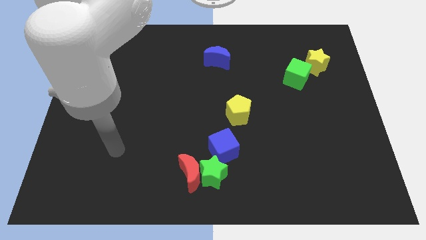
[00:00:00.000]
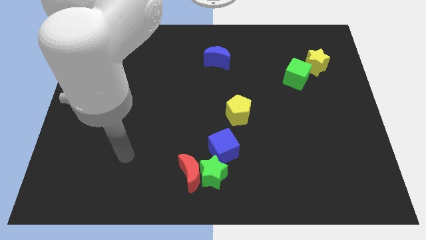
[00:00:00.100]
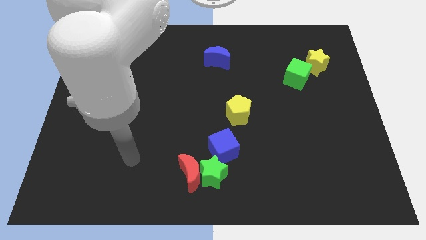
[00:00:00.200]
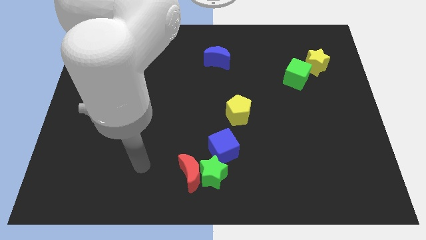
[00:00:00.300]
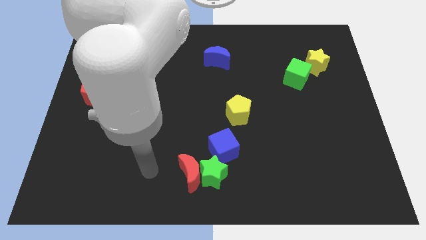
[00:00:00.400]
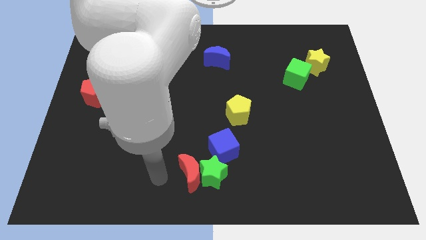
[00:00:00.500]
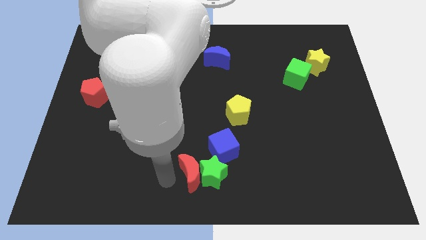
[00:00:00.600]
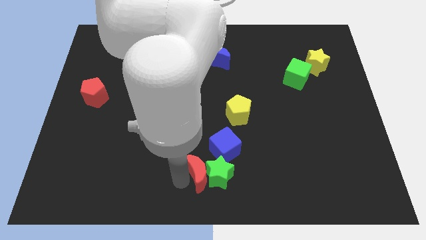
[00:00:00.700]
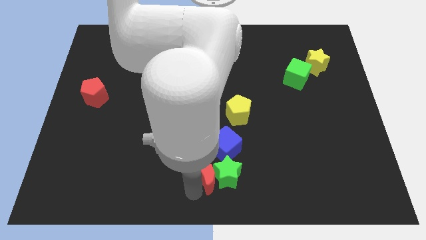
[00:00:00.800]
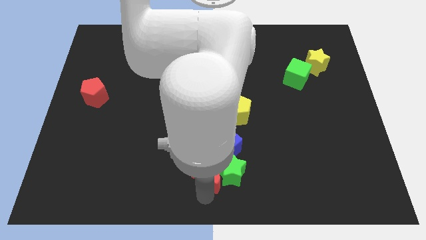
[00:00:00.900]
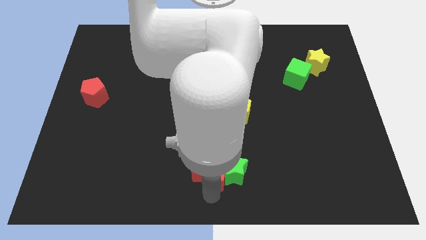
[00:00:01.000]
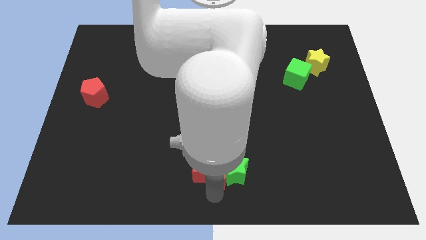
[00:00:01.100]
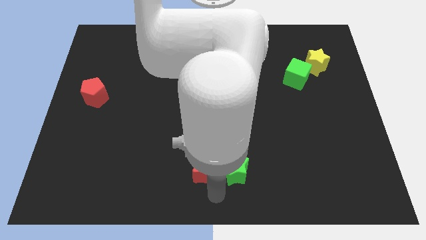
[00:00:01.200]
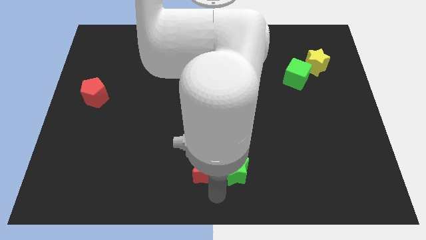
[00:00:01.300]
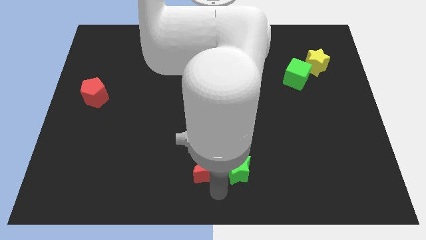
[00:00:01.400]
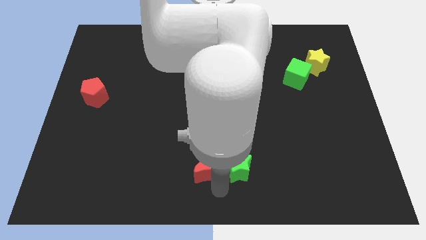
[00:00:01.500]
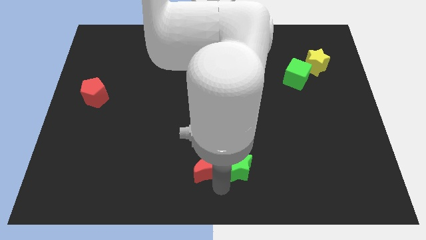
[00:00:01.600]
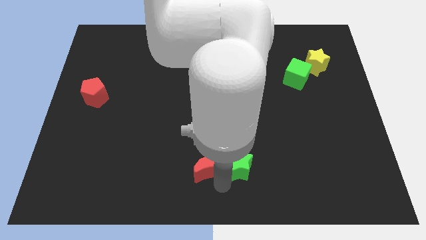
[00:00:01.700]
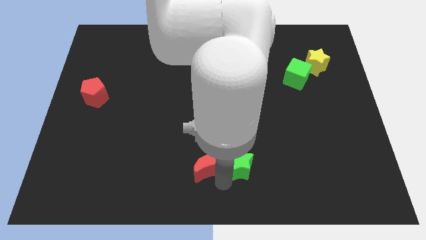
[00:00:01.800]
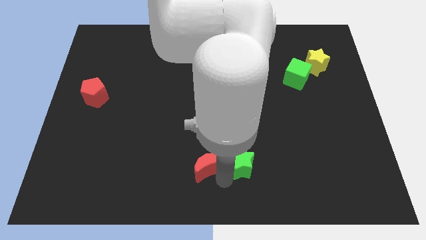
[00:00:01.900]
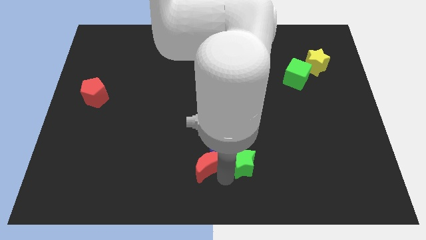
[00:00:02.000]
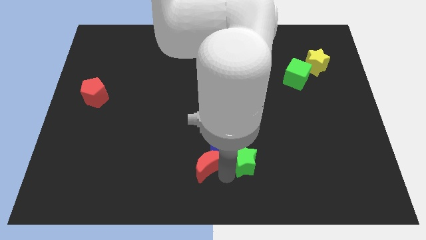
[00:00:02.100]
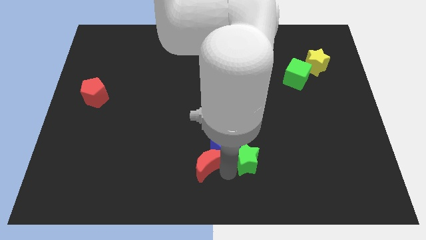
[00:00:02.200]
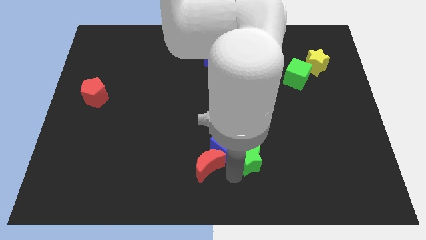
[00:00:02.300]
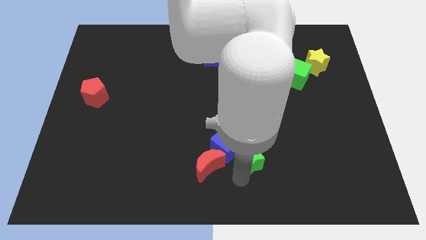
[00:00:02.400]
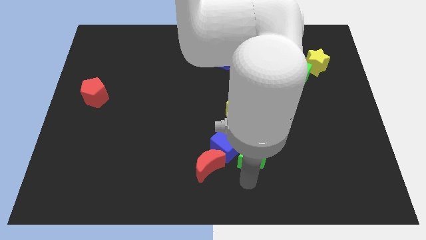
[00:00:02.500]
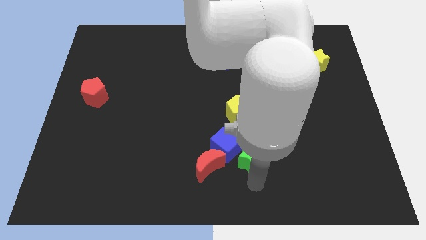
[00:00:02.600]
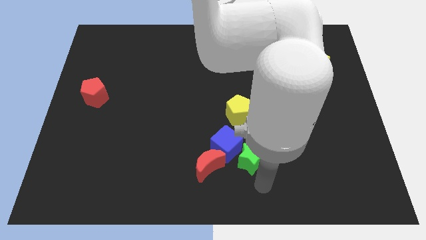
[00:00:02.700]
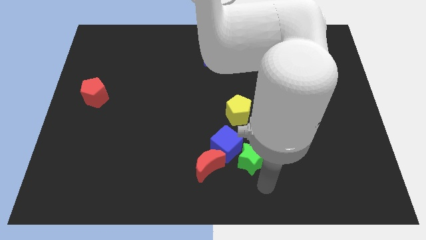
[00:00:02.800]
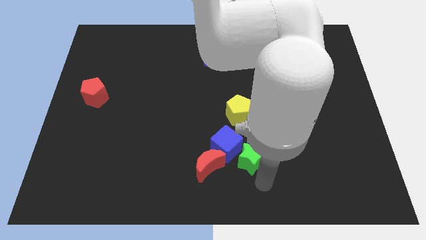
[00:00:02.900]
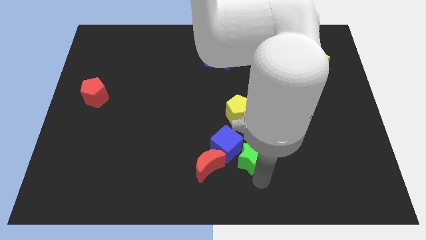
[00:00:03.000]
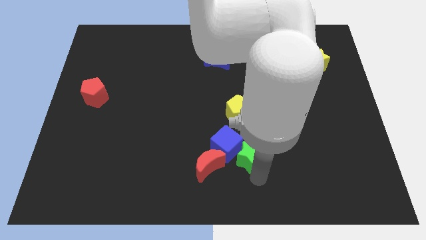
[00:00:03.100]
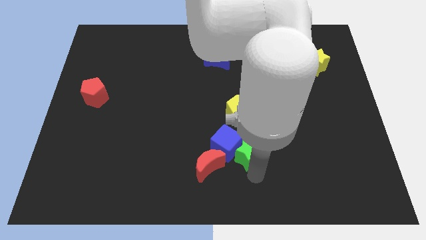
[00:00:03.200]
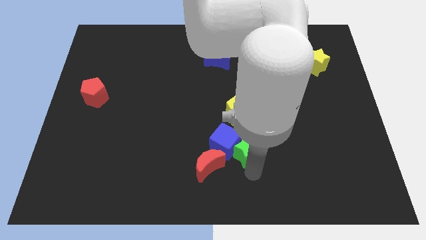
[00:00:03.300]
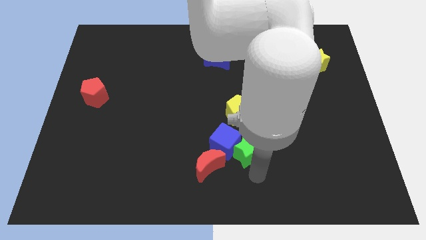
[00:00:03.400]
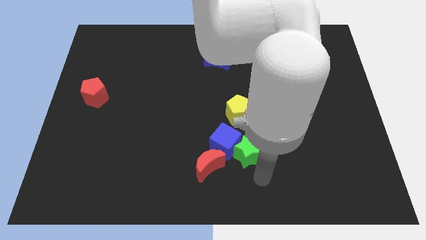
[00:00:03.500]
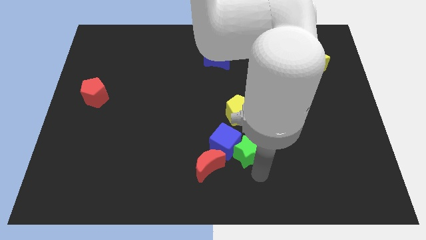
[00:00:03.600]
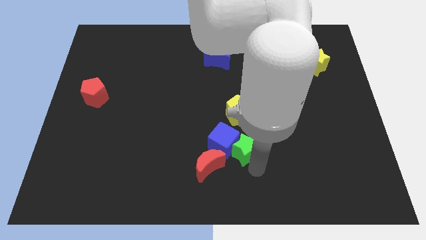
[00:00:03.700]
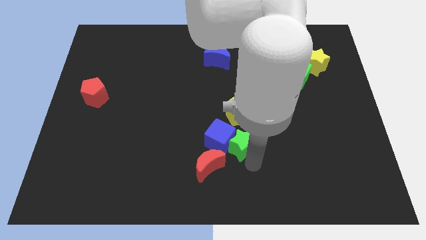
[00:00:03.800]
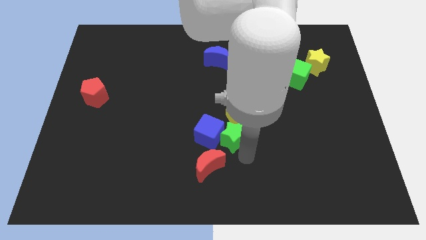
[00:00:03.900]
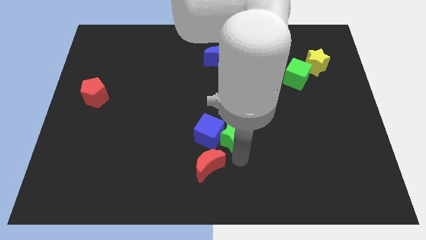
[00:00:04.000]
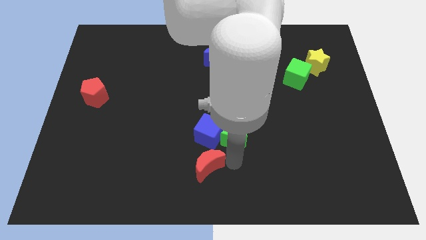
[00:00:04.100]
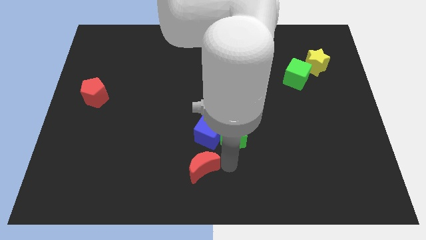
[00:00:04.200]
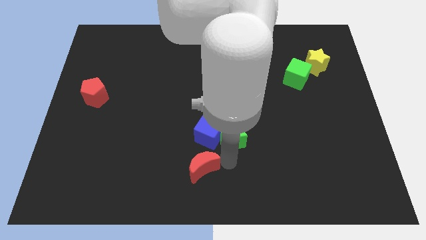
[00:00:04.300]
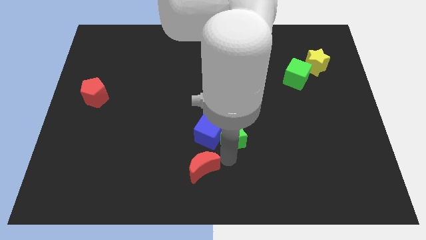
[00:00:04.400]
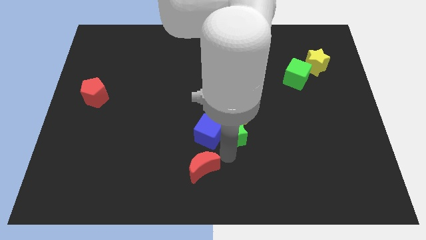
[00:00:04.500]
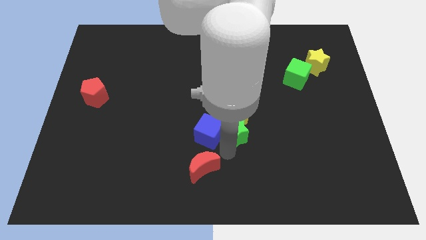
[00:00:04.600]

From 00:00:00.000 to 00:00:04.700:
put the green star towards the yellow pentagon

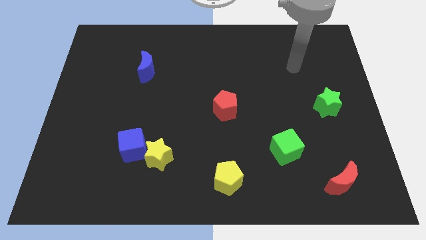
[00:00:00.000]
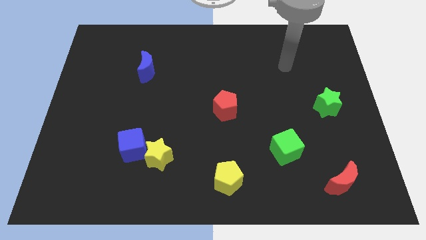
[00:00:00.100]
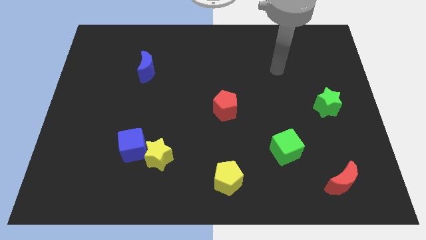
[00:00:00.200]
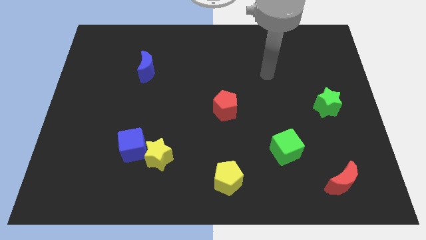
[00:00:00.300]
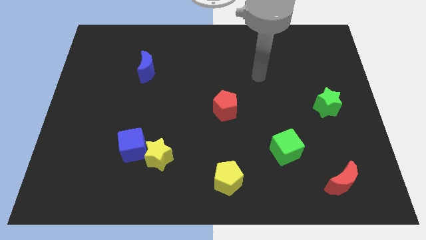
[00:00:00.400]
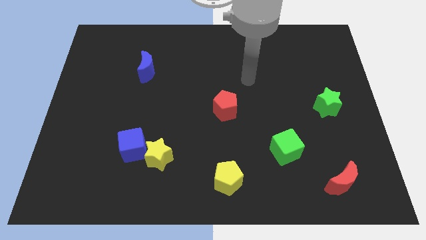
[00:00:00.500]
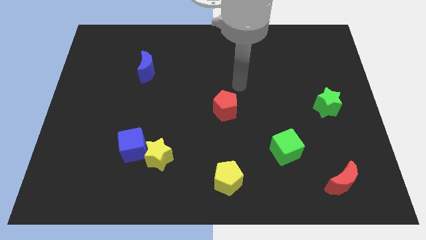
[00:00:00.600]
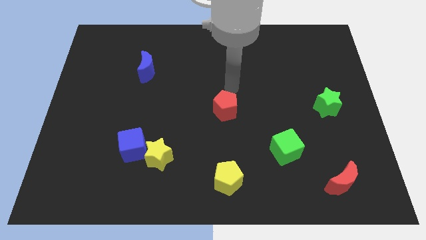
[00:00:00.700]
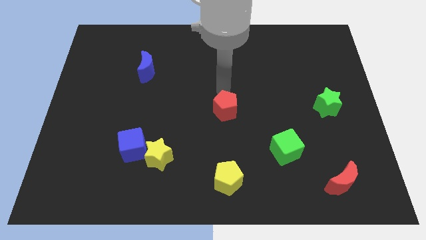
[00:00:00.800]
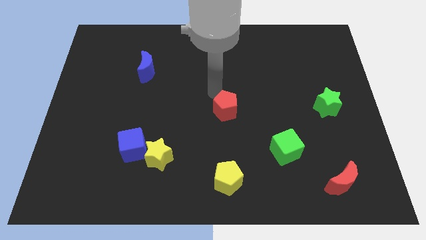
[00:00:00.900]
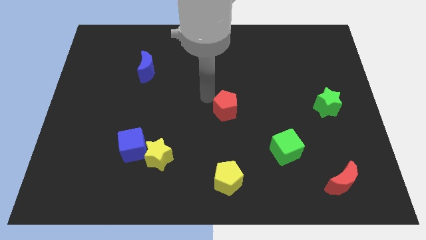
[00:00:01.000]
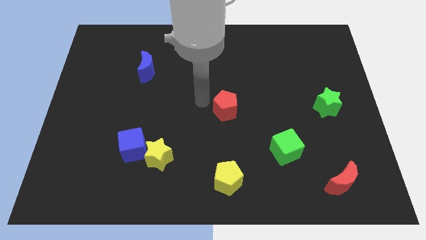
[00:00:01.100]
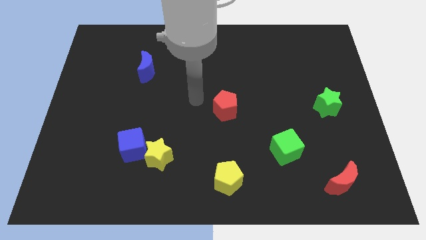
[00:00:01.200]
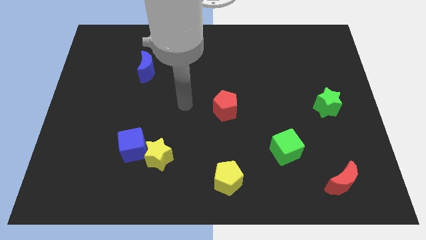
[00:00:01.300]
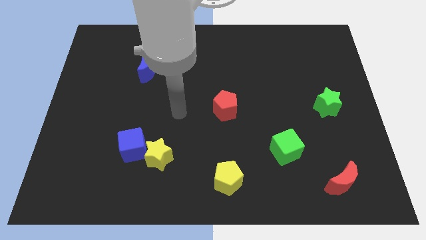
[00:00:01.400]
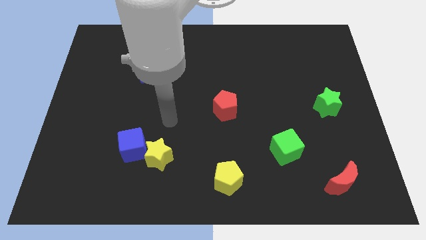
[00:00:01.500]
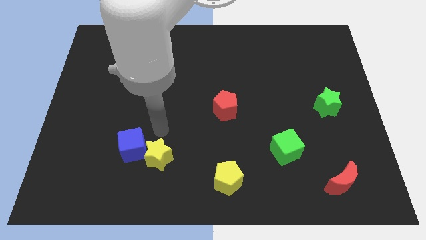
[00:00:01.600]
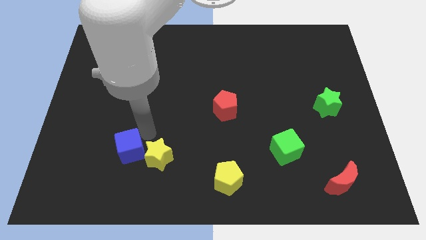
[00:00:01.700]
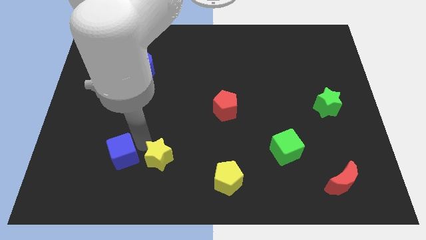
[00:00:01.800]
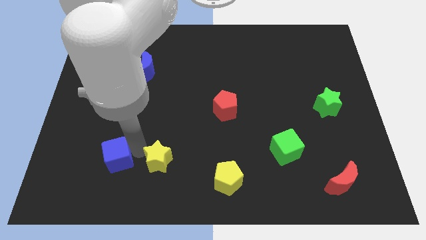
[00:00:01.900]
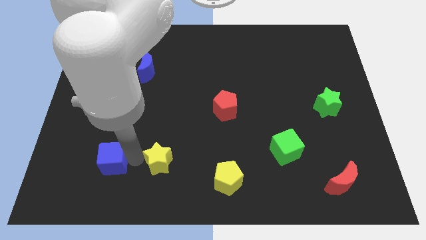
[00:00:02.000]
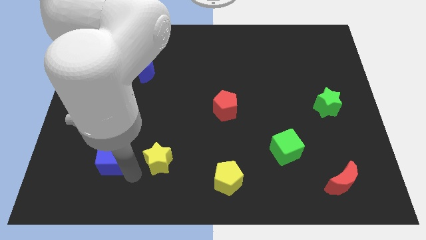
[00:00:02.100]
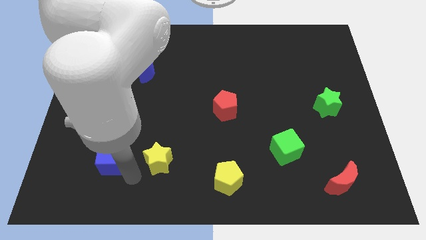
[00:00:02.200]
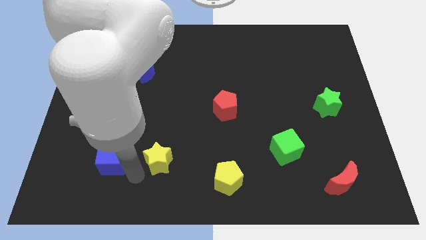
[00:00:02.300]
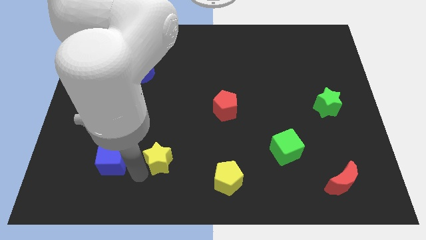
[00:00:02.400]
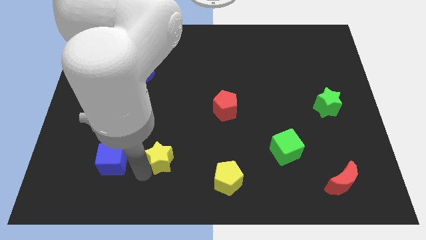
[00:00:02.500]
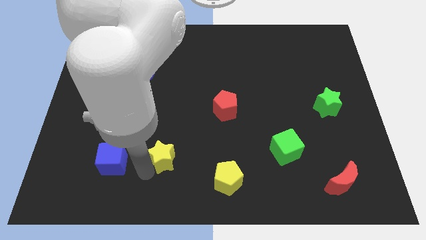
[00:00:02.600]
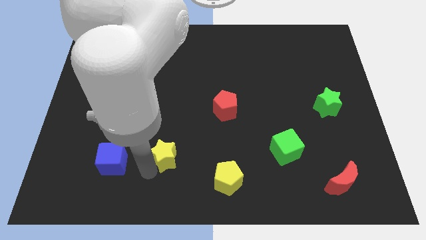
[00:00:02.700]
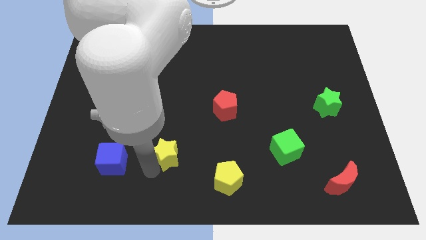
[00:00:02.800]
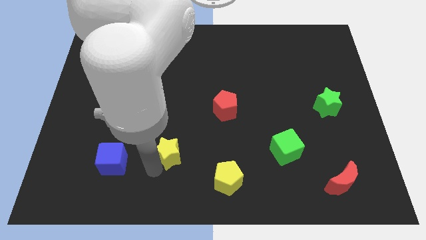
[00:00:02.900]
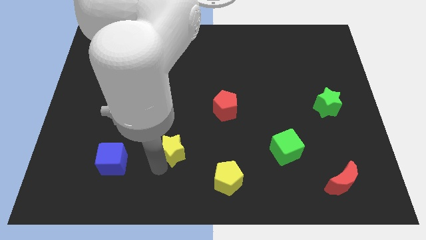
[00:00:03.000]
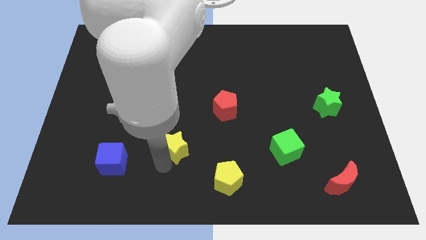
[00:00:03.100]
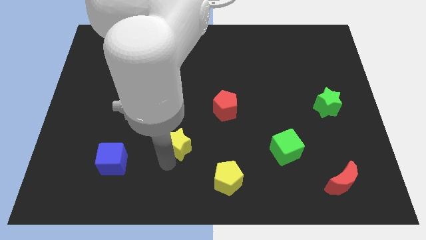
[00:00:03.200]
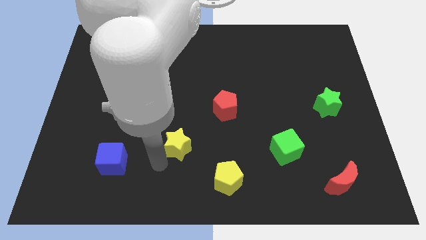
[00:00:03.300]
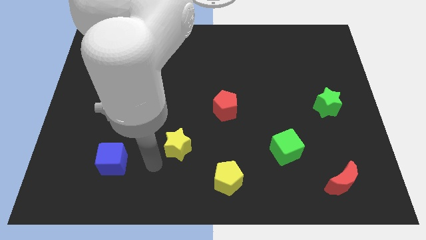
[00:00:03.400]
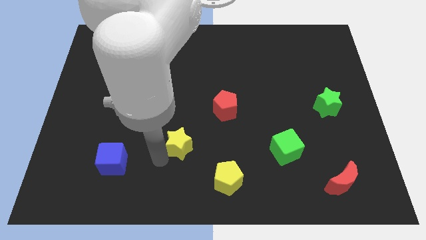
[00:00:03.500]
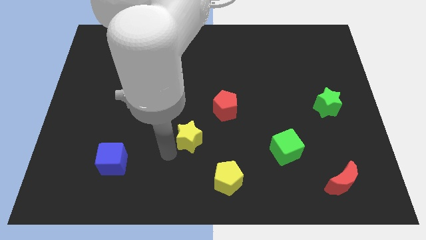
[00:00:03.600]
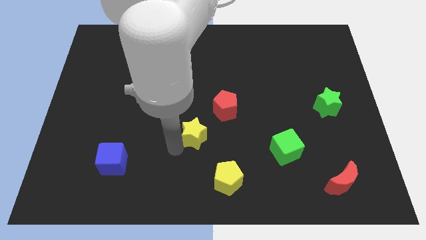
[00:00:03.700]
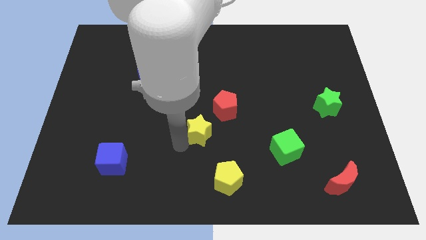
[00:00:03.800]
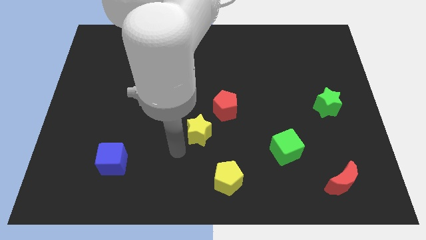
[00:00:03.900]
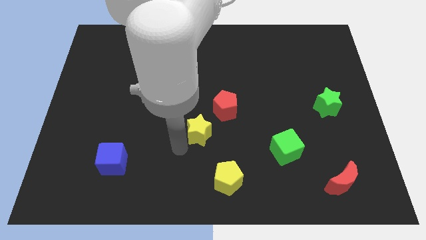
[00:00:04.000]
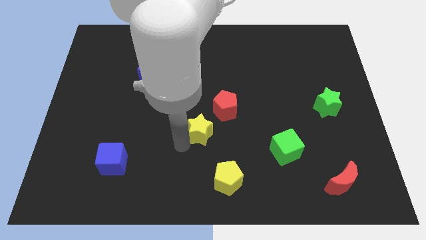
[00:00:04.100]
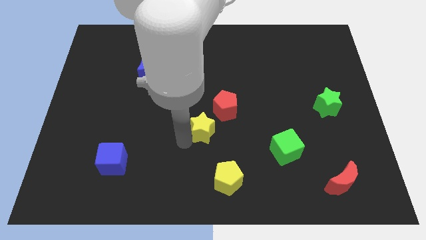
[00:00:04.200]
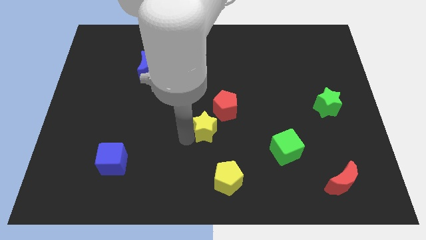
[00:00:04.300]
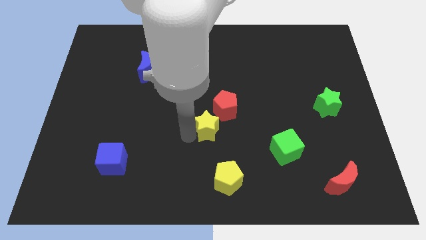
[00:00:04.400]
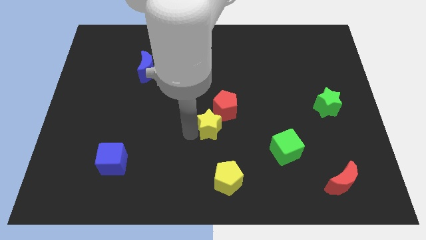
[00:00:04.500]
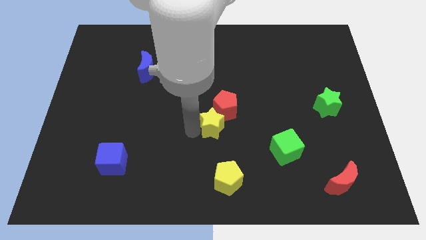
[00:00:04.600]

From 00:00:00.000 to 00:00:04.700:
put the yellow star next to the red pentagon
